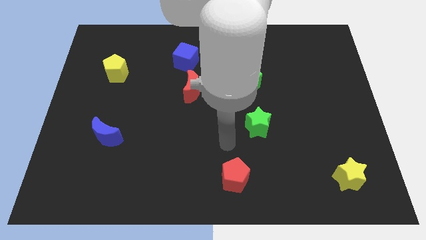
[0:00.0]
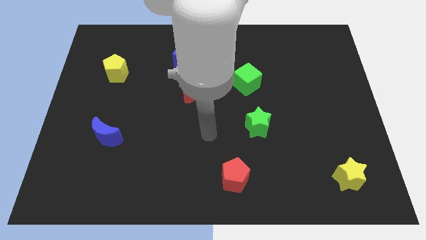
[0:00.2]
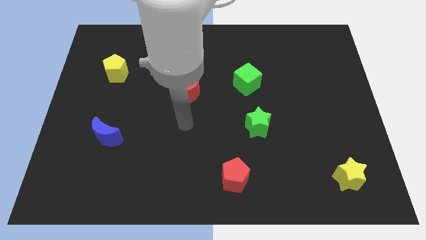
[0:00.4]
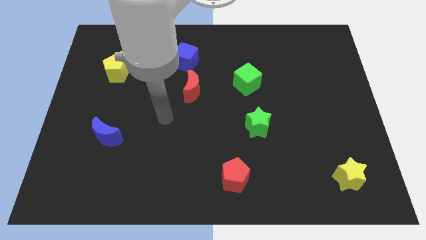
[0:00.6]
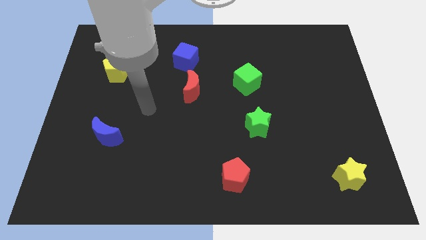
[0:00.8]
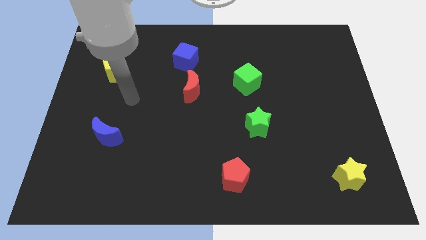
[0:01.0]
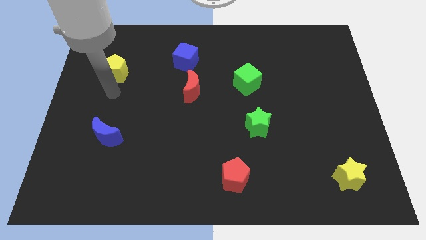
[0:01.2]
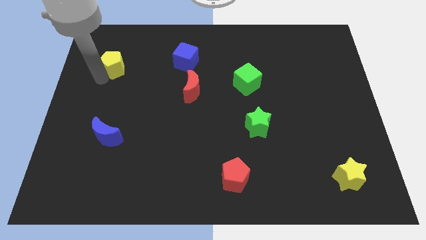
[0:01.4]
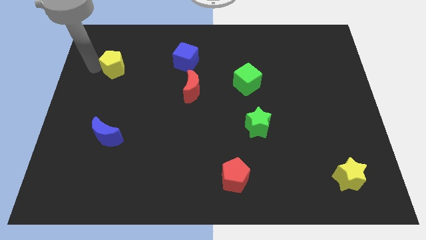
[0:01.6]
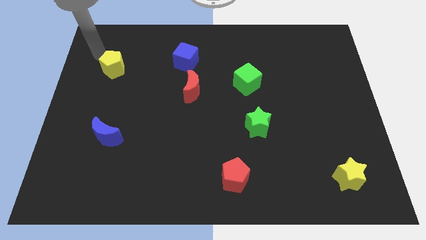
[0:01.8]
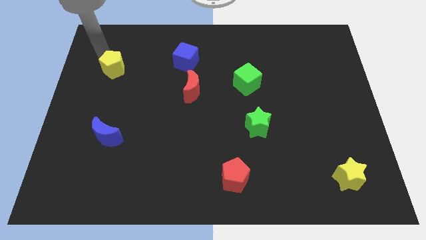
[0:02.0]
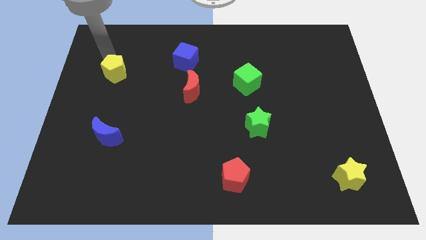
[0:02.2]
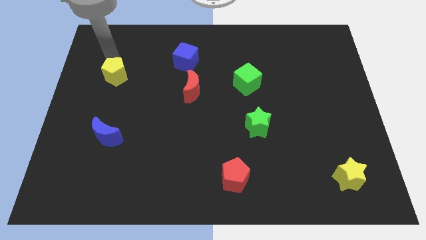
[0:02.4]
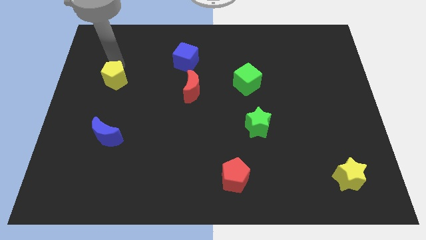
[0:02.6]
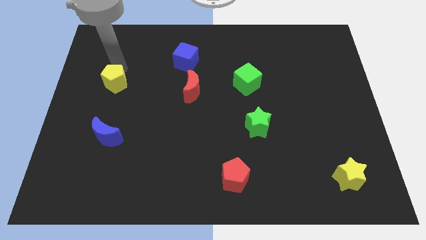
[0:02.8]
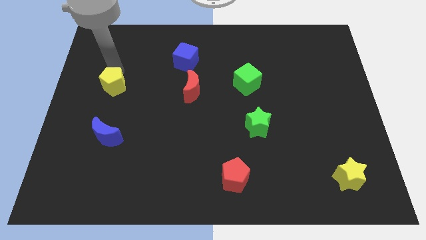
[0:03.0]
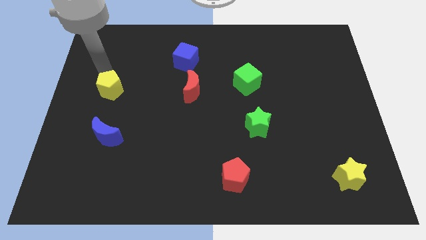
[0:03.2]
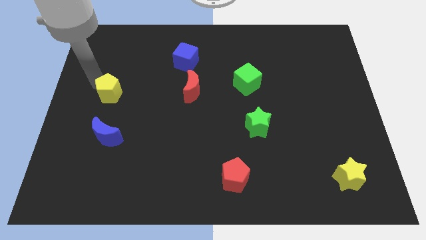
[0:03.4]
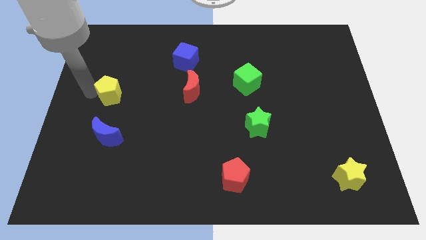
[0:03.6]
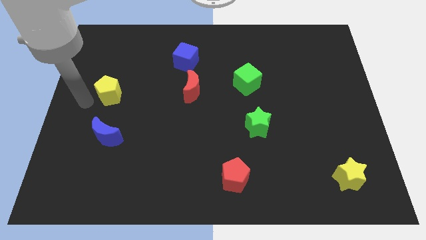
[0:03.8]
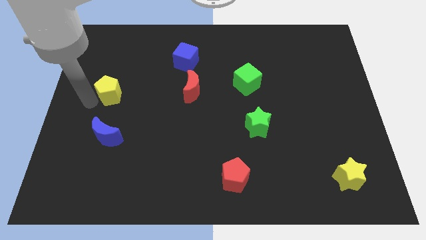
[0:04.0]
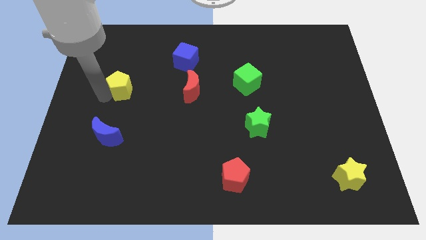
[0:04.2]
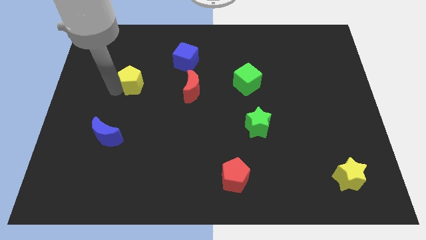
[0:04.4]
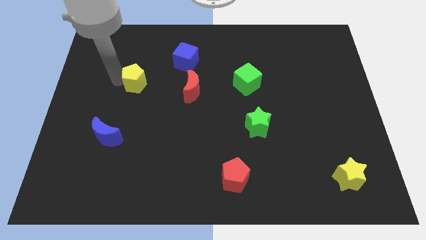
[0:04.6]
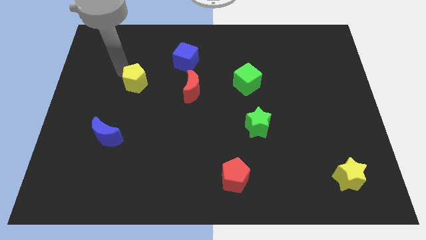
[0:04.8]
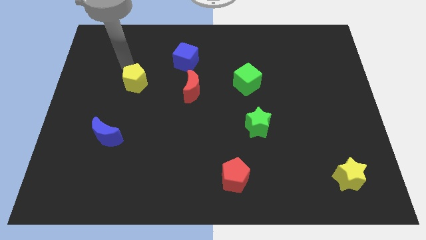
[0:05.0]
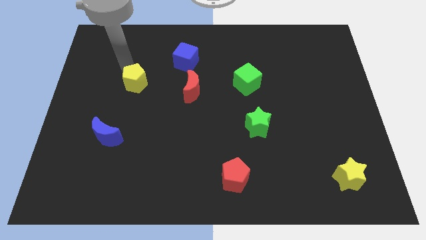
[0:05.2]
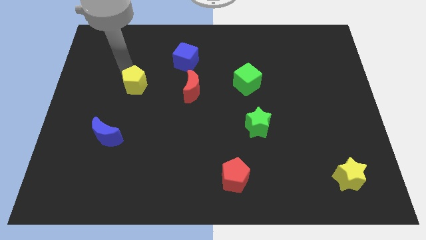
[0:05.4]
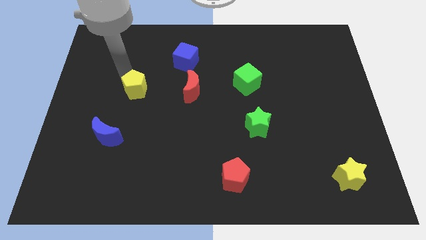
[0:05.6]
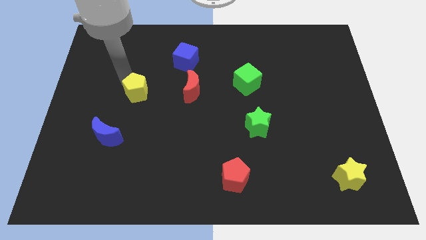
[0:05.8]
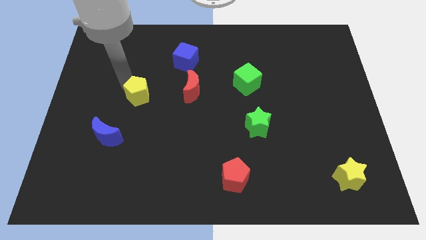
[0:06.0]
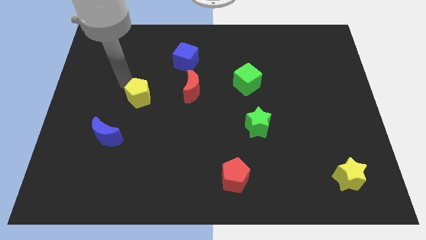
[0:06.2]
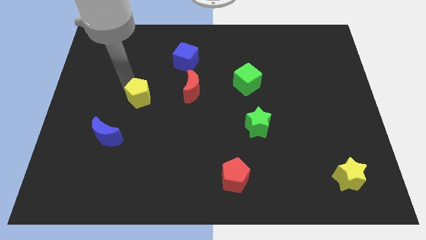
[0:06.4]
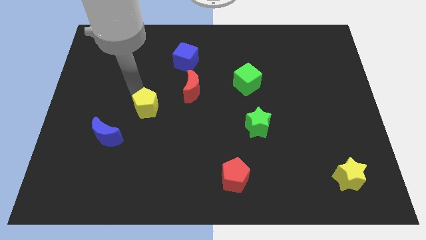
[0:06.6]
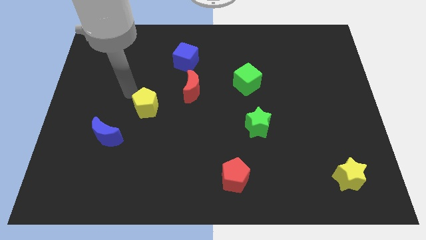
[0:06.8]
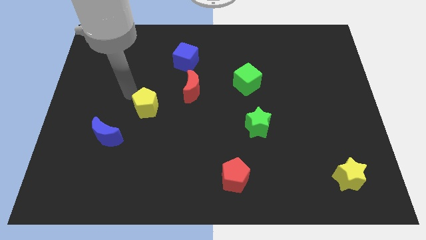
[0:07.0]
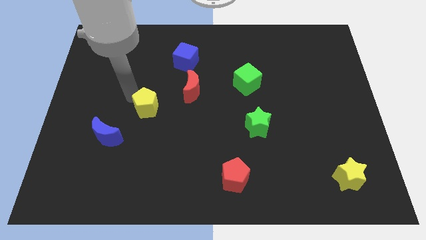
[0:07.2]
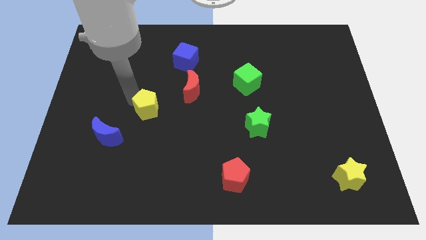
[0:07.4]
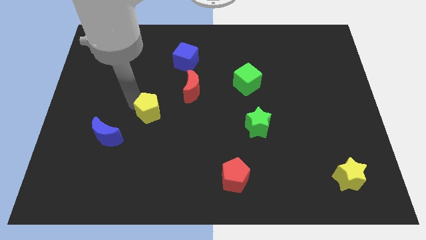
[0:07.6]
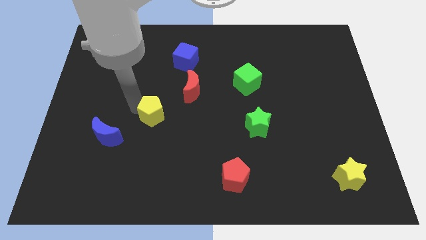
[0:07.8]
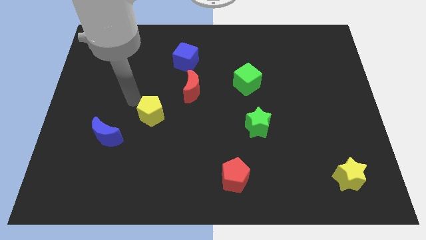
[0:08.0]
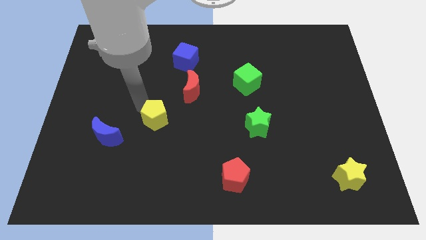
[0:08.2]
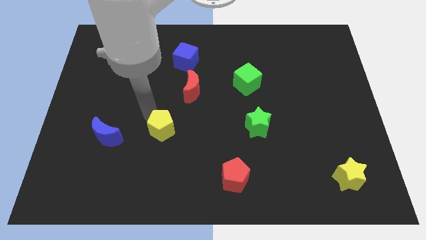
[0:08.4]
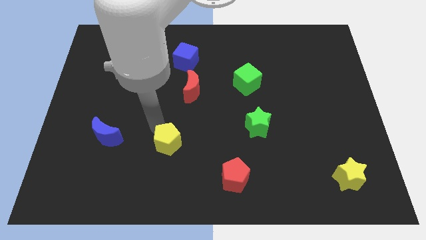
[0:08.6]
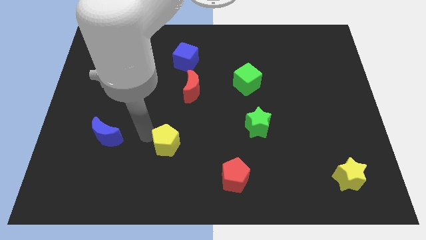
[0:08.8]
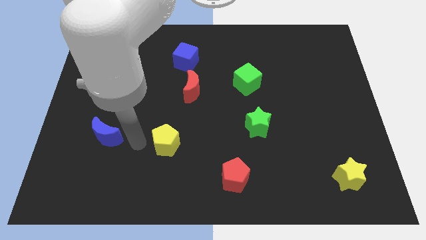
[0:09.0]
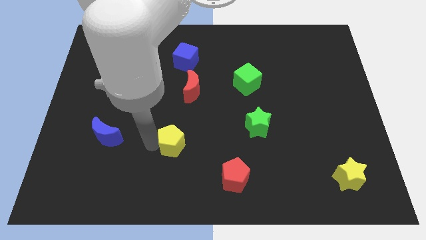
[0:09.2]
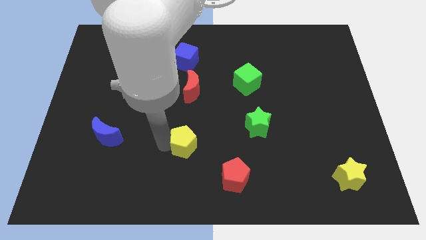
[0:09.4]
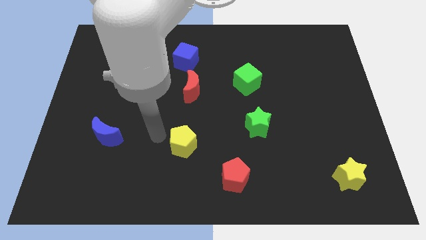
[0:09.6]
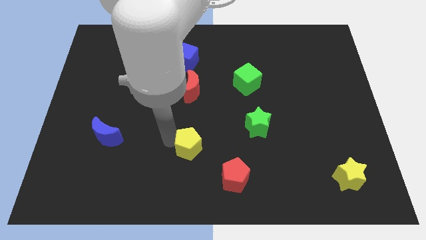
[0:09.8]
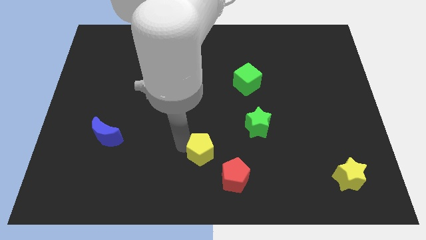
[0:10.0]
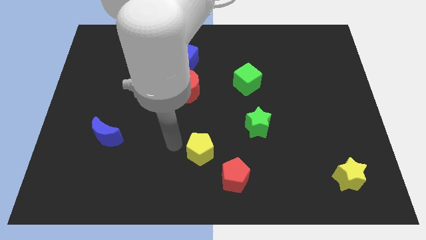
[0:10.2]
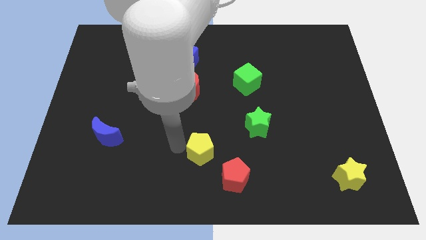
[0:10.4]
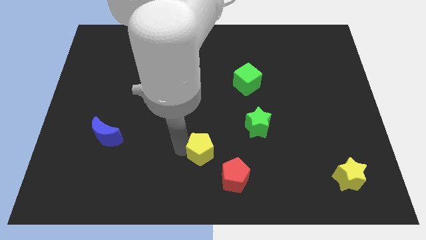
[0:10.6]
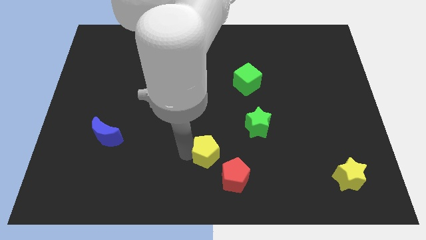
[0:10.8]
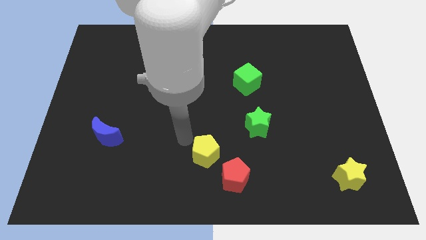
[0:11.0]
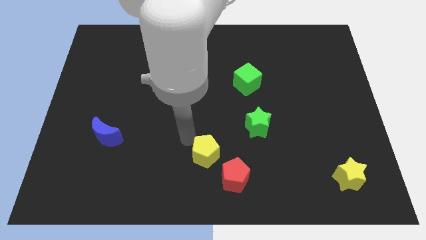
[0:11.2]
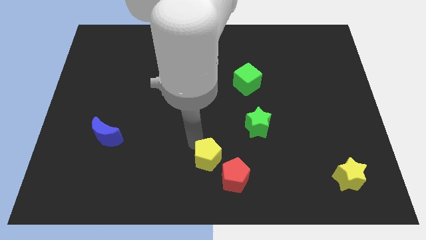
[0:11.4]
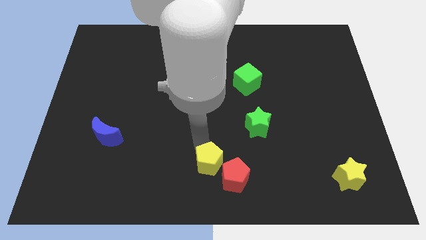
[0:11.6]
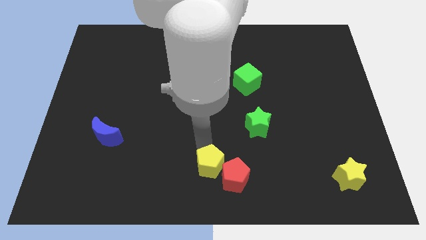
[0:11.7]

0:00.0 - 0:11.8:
put the yellow pentagon next to the red pentagon
